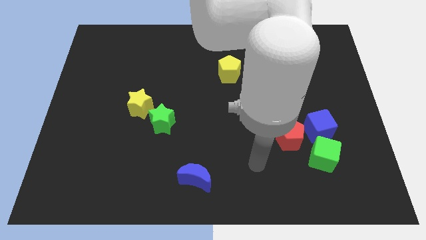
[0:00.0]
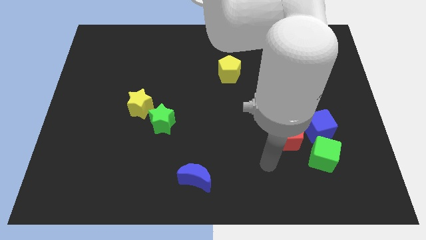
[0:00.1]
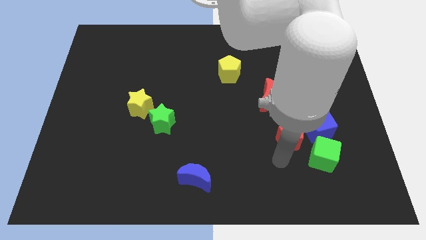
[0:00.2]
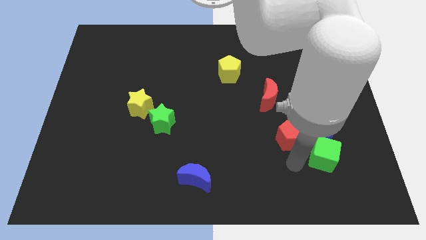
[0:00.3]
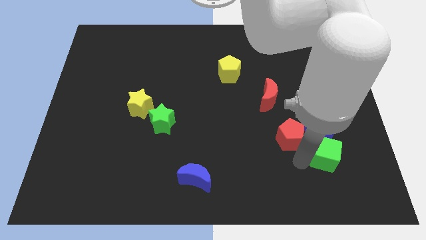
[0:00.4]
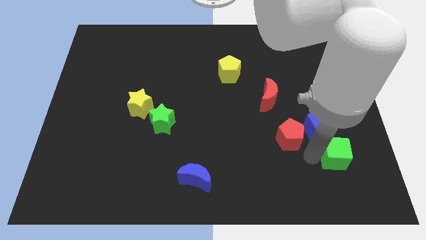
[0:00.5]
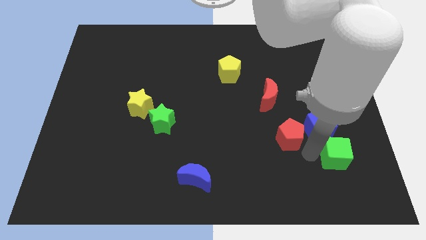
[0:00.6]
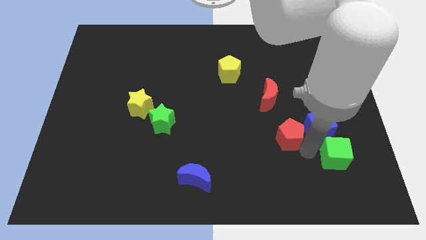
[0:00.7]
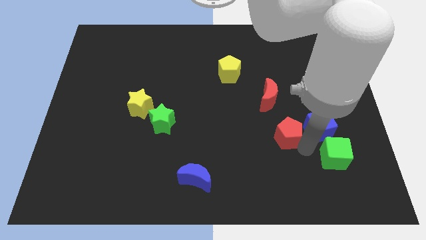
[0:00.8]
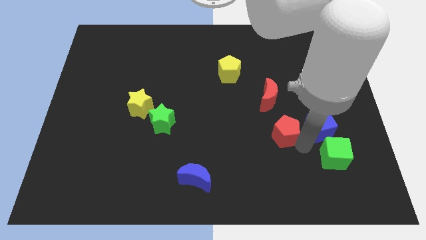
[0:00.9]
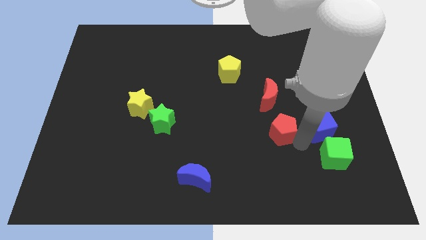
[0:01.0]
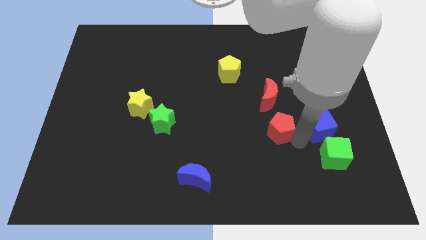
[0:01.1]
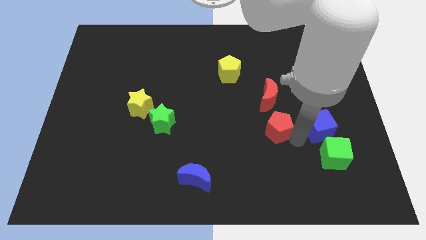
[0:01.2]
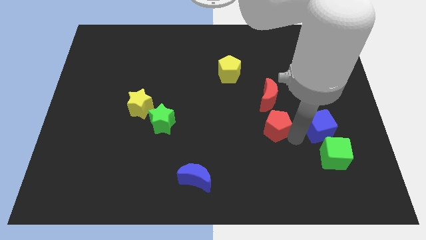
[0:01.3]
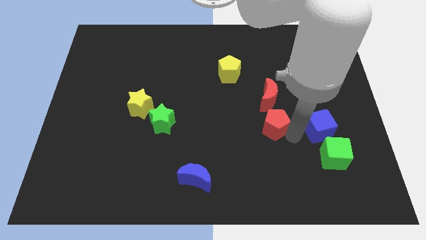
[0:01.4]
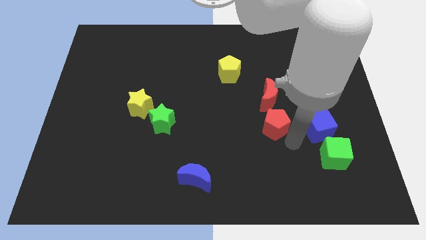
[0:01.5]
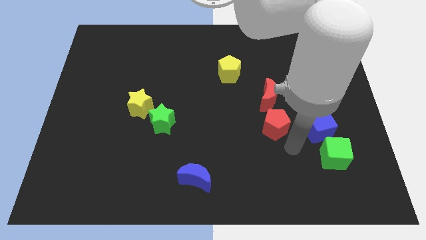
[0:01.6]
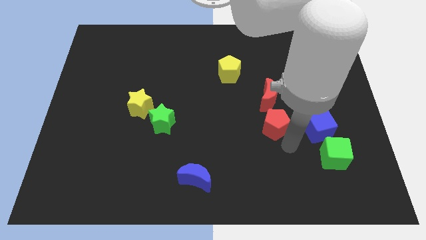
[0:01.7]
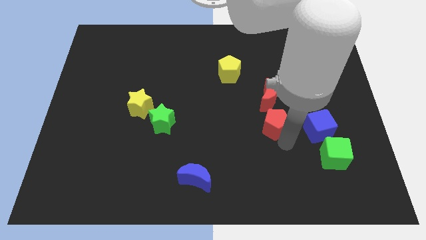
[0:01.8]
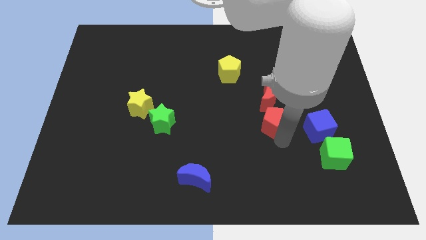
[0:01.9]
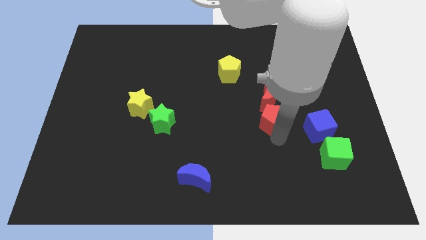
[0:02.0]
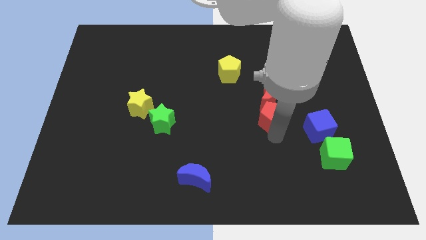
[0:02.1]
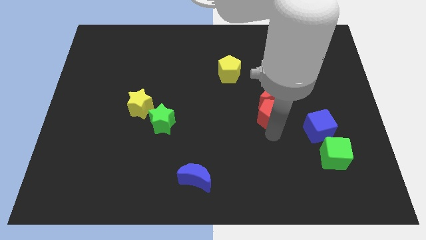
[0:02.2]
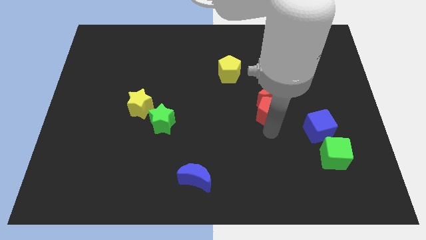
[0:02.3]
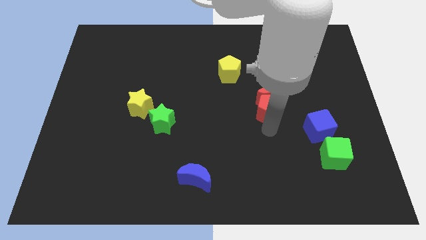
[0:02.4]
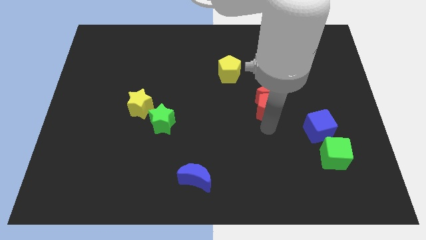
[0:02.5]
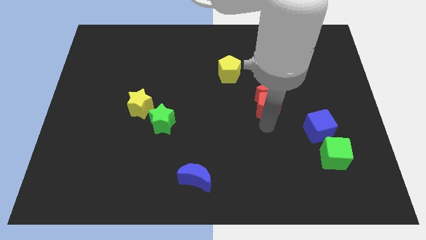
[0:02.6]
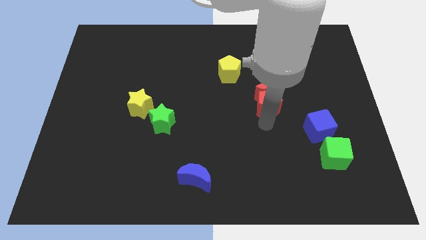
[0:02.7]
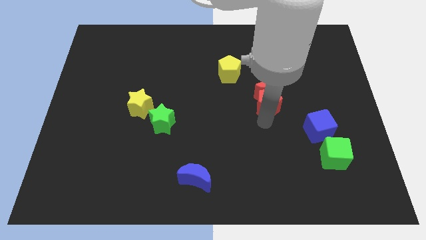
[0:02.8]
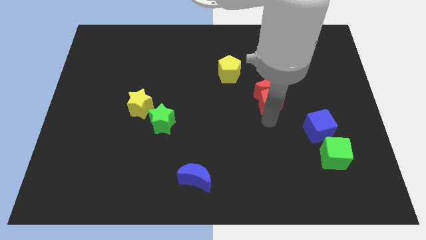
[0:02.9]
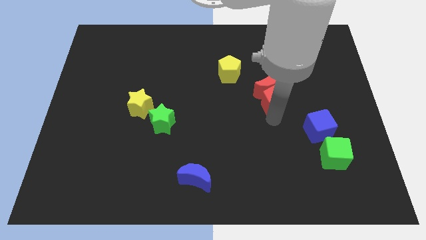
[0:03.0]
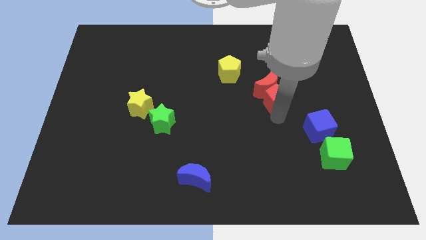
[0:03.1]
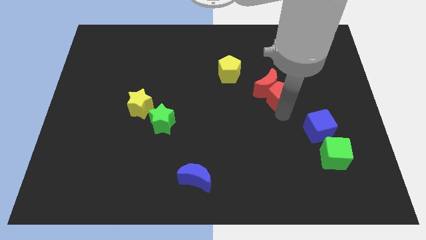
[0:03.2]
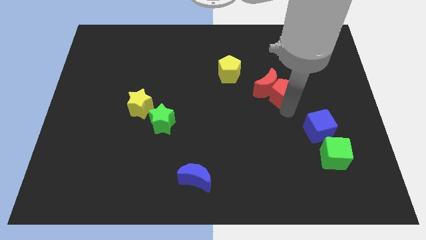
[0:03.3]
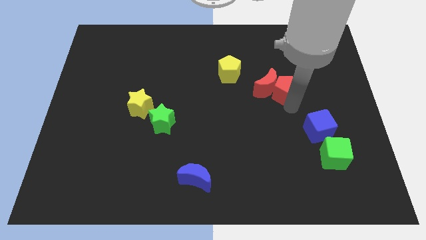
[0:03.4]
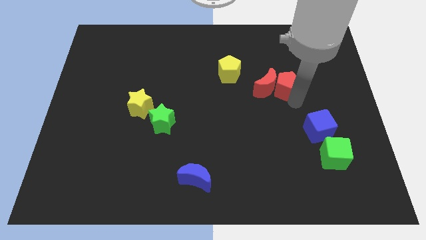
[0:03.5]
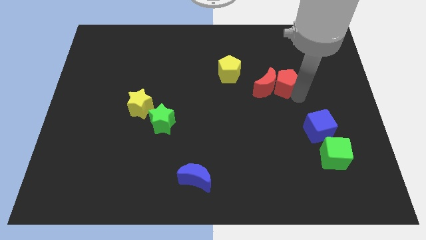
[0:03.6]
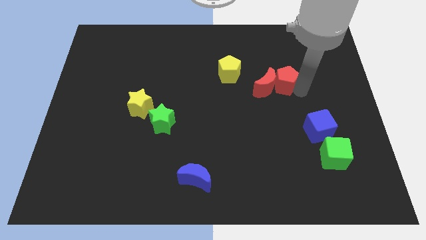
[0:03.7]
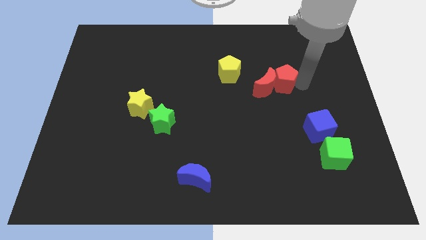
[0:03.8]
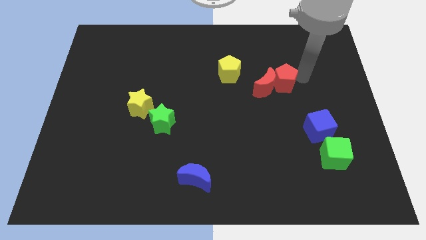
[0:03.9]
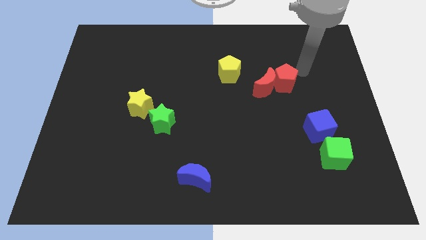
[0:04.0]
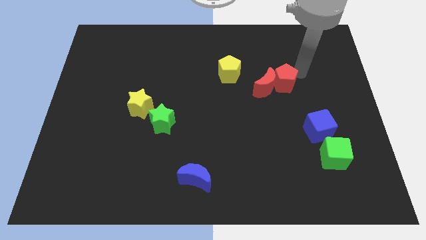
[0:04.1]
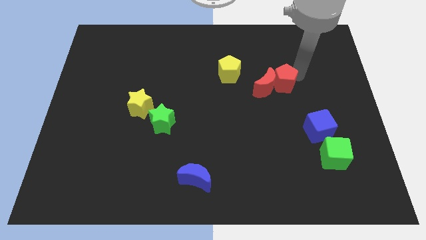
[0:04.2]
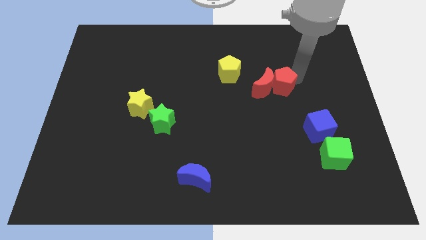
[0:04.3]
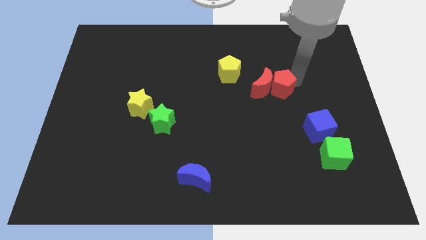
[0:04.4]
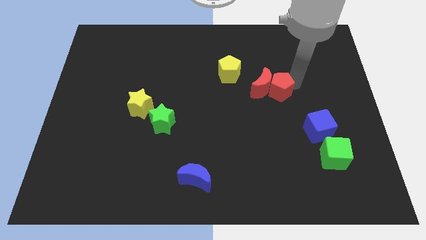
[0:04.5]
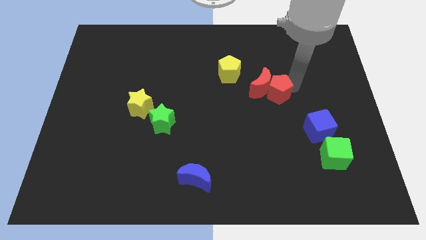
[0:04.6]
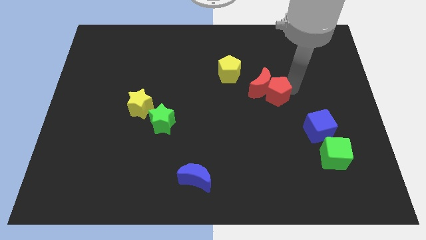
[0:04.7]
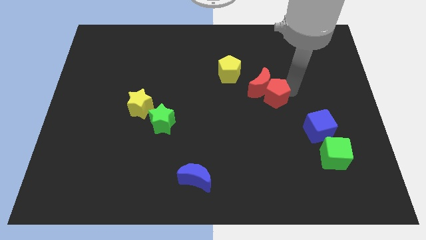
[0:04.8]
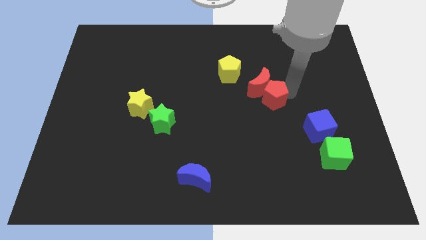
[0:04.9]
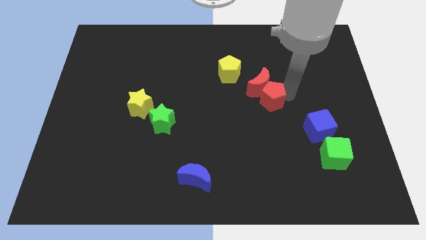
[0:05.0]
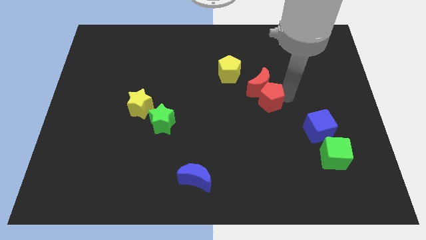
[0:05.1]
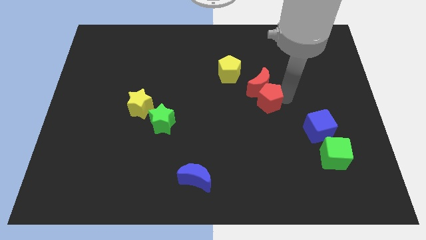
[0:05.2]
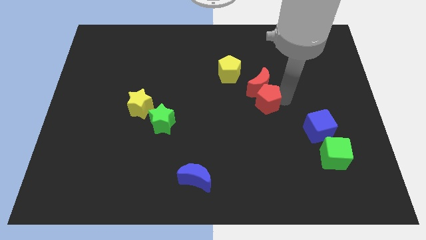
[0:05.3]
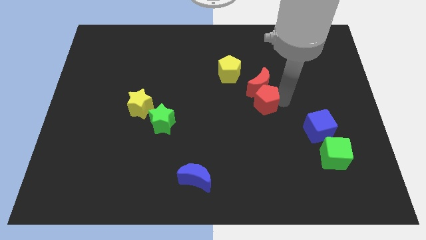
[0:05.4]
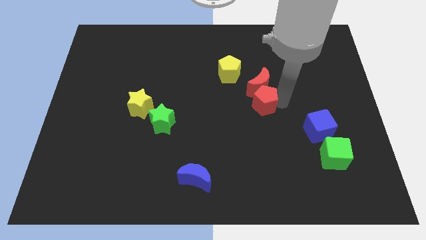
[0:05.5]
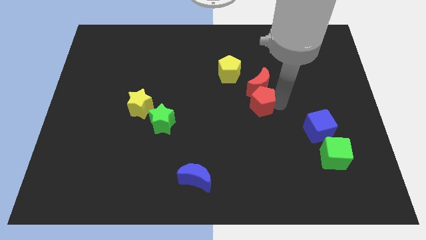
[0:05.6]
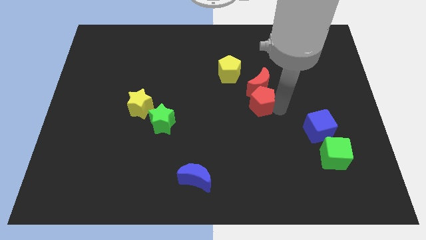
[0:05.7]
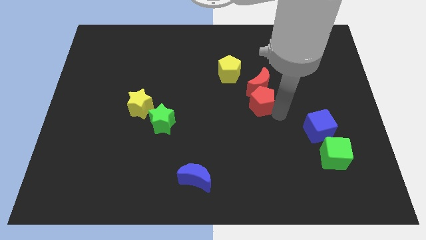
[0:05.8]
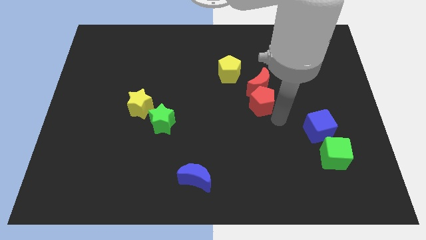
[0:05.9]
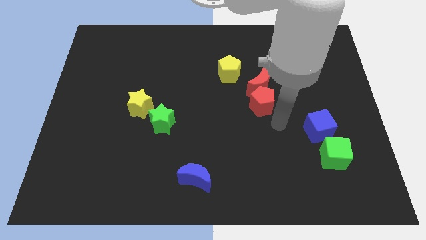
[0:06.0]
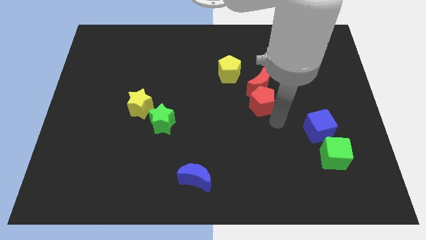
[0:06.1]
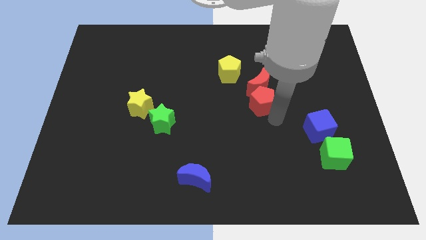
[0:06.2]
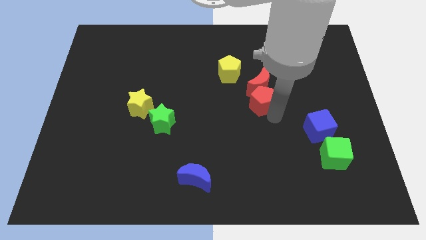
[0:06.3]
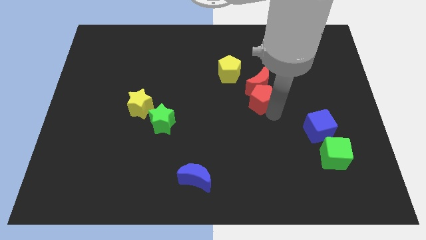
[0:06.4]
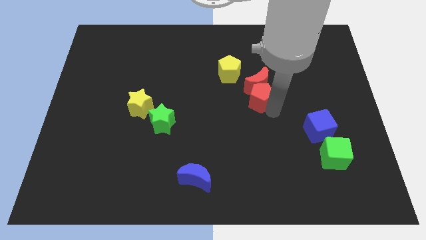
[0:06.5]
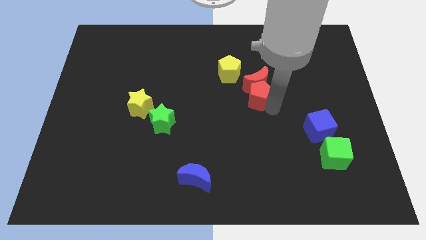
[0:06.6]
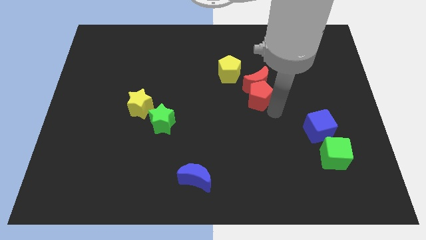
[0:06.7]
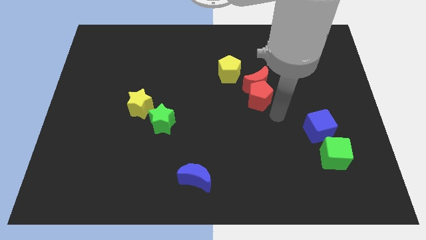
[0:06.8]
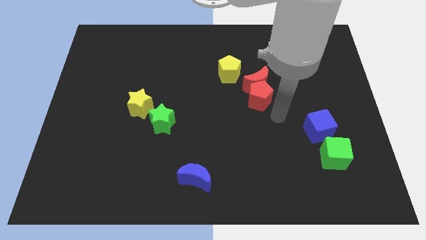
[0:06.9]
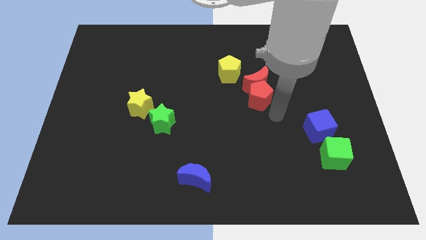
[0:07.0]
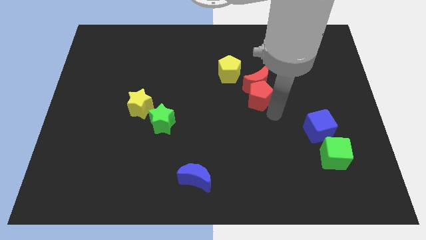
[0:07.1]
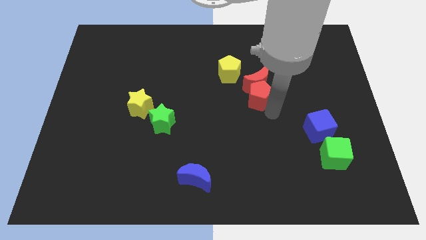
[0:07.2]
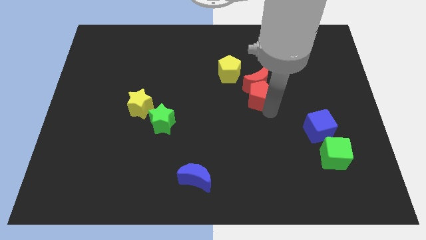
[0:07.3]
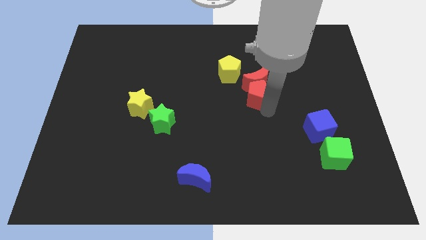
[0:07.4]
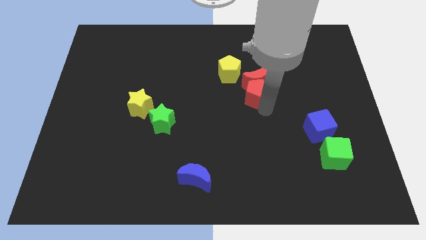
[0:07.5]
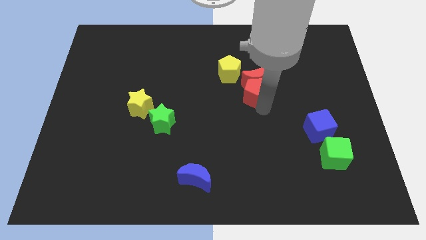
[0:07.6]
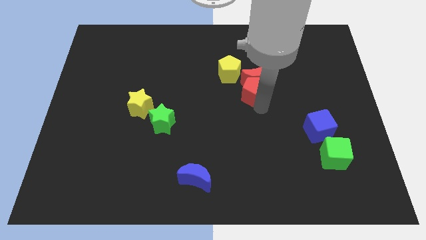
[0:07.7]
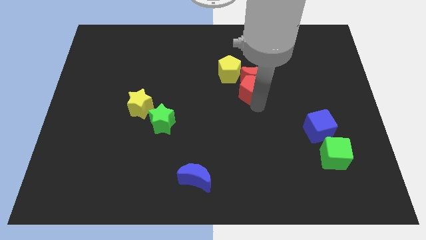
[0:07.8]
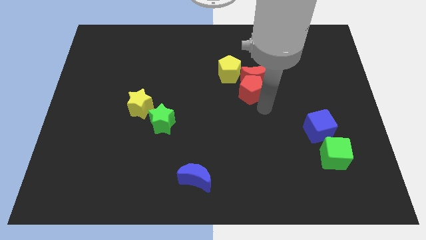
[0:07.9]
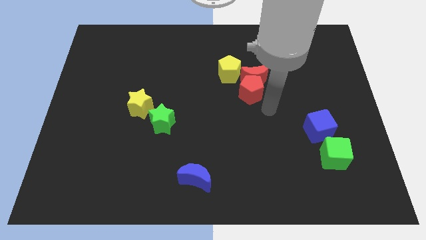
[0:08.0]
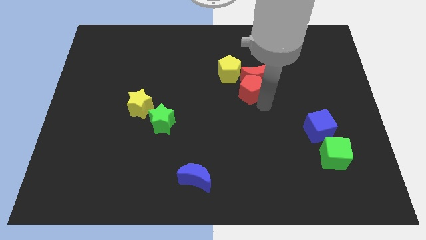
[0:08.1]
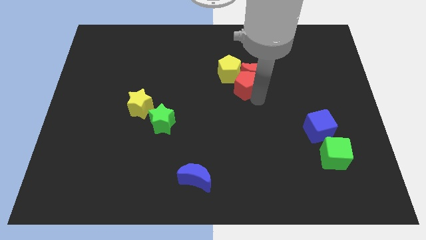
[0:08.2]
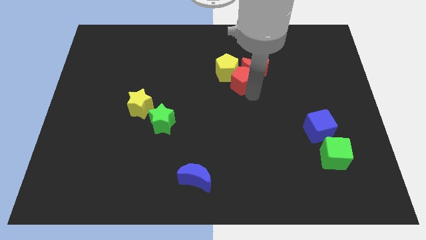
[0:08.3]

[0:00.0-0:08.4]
slide the red pentagon towards the yellow pentagon
